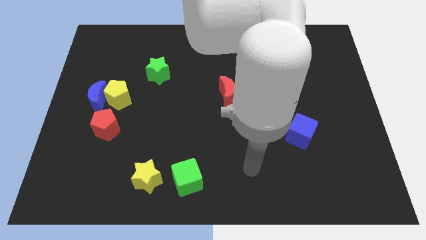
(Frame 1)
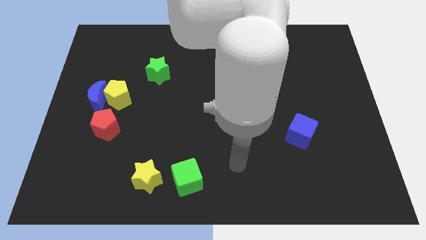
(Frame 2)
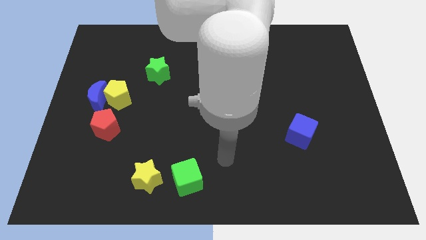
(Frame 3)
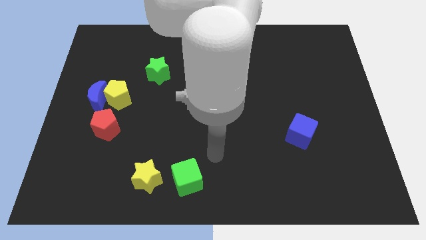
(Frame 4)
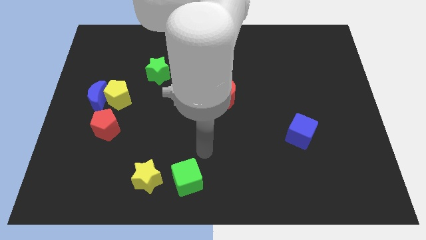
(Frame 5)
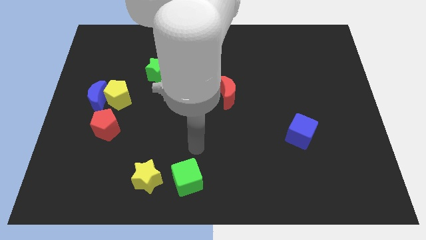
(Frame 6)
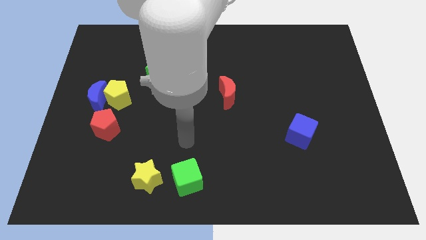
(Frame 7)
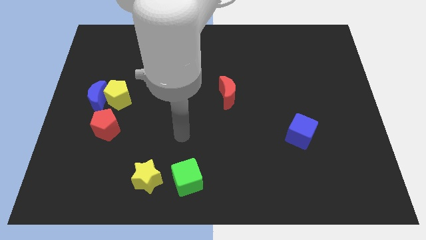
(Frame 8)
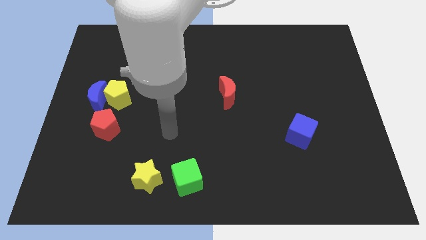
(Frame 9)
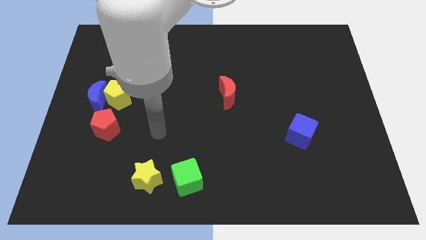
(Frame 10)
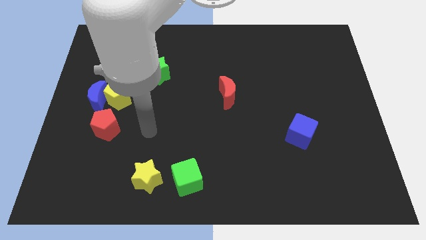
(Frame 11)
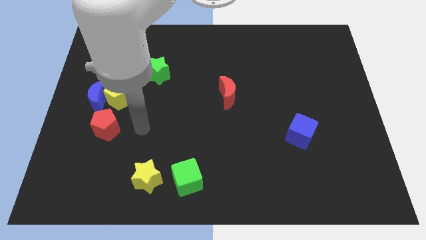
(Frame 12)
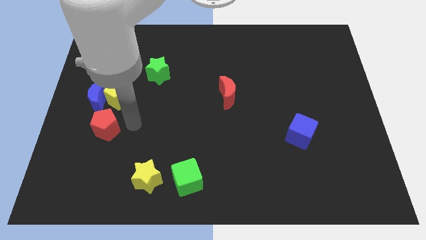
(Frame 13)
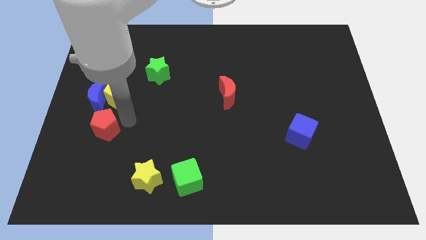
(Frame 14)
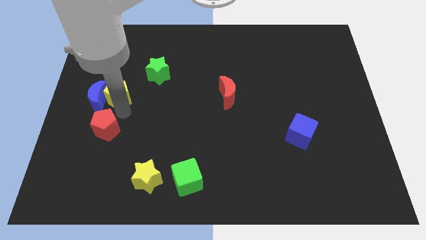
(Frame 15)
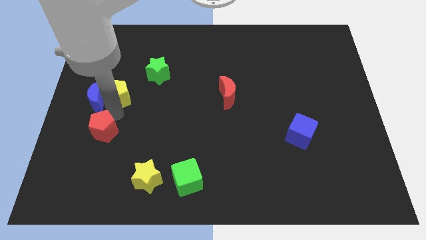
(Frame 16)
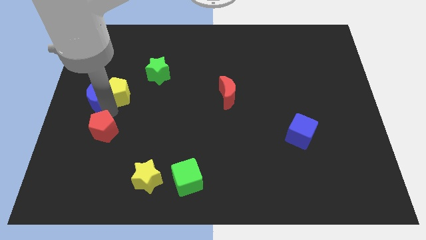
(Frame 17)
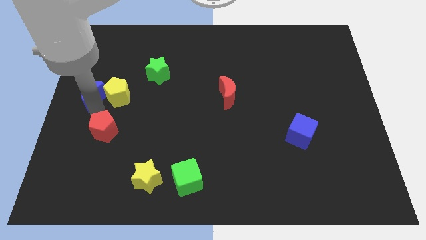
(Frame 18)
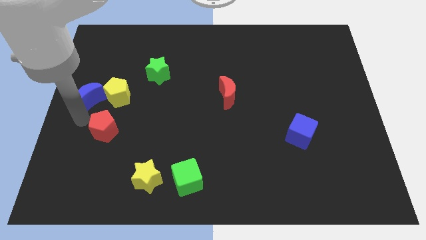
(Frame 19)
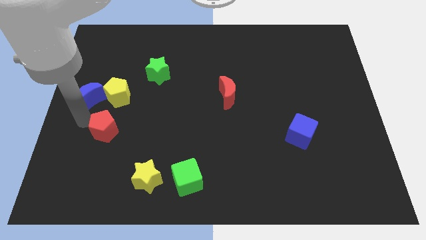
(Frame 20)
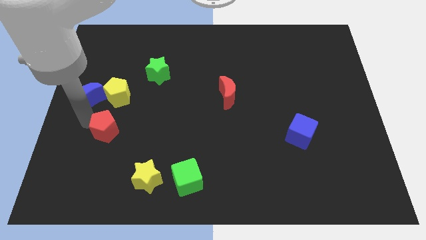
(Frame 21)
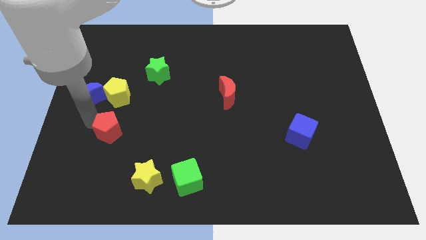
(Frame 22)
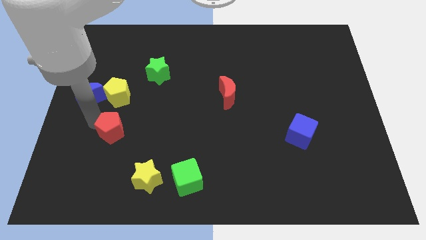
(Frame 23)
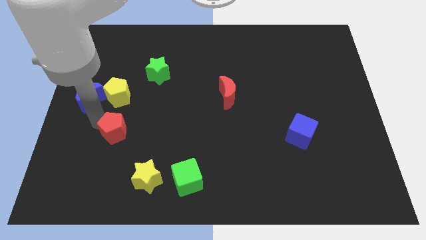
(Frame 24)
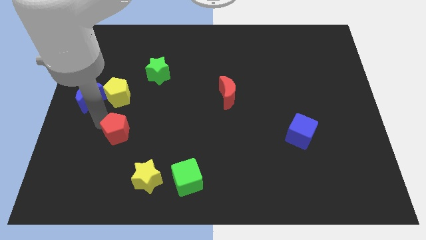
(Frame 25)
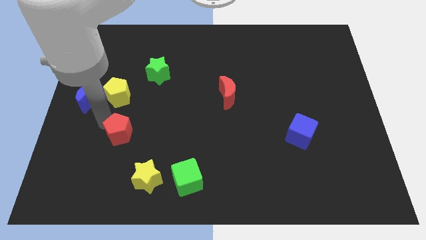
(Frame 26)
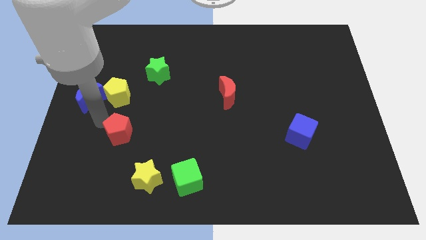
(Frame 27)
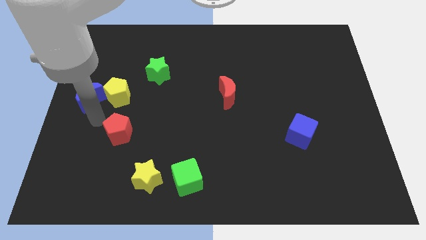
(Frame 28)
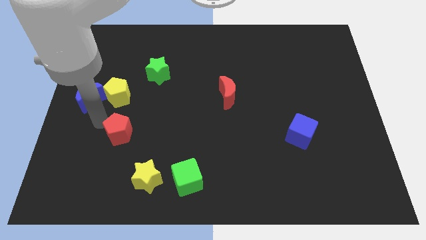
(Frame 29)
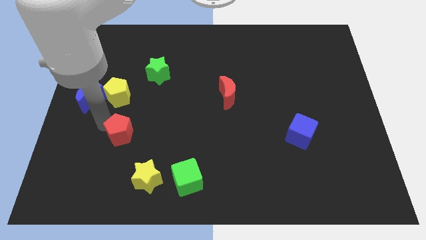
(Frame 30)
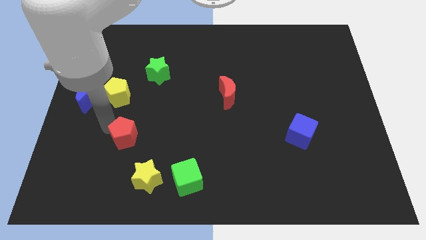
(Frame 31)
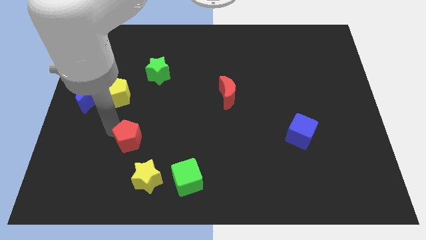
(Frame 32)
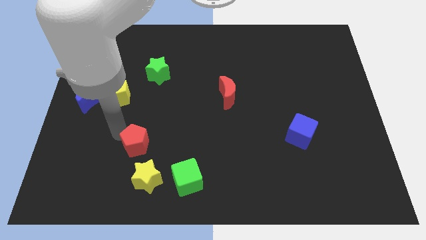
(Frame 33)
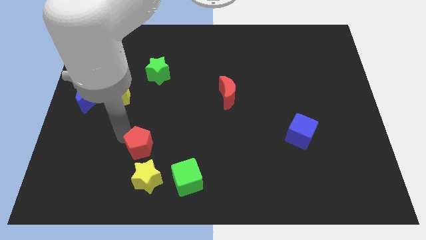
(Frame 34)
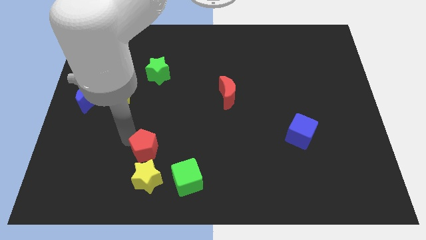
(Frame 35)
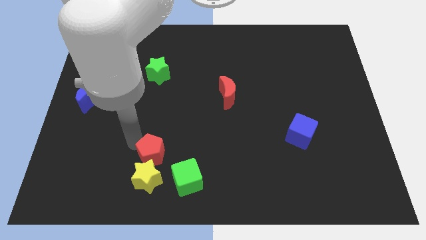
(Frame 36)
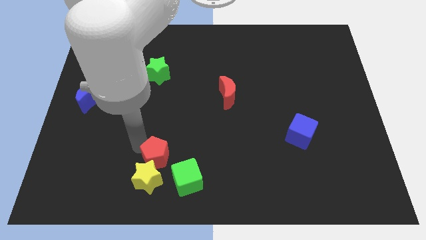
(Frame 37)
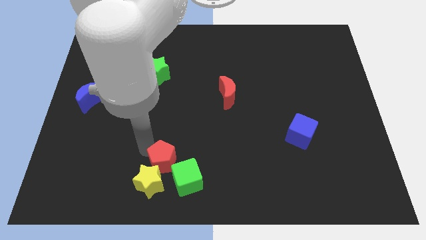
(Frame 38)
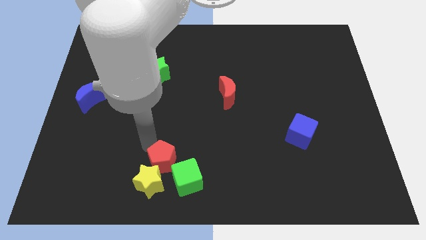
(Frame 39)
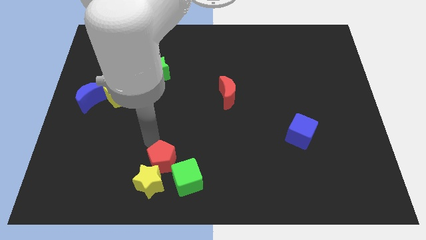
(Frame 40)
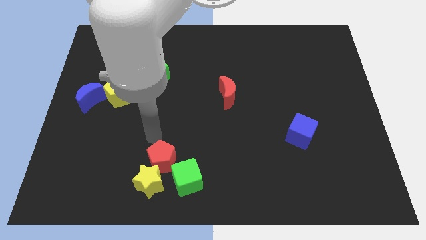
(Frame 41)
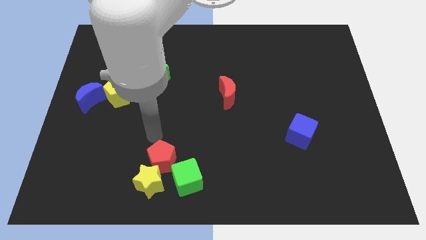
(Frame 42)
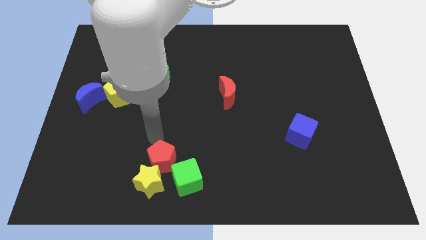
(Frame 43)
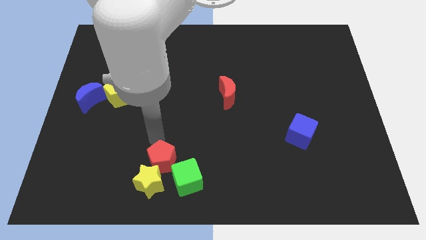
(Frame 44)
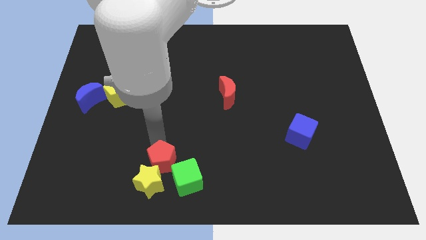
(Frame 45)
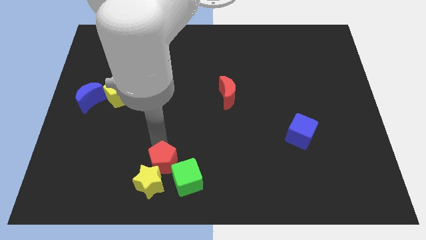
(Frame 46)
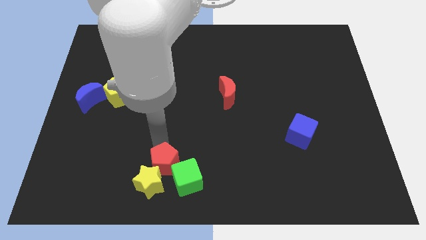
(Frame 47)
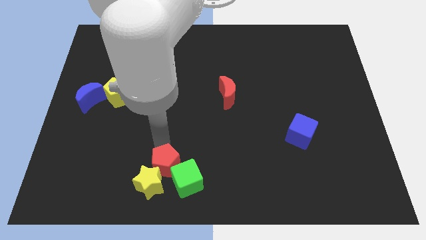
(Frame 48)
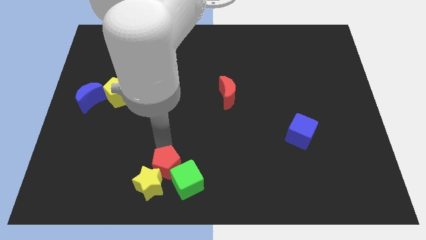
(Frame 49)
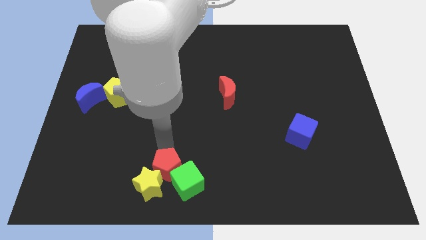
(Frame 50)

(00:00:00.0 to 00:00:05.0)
slide the red pentagon to the bottom side

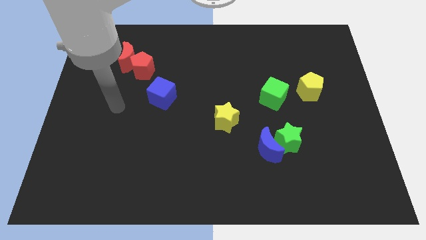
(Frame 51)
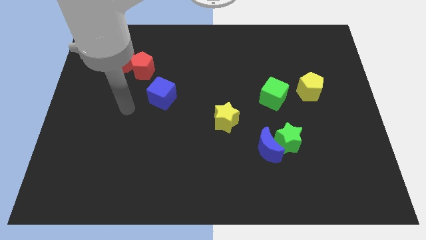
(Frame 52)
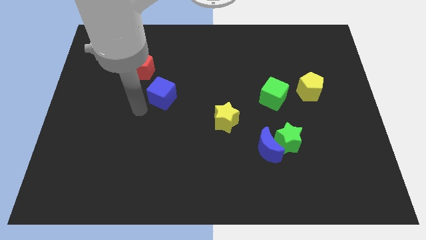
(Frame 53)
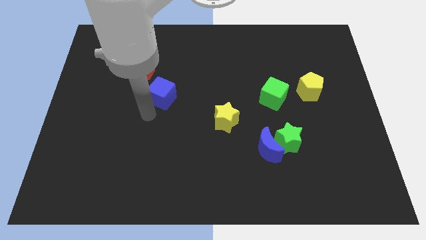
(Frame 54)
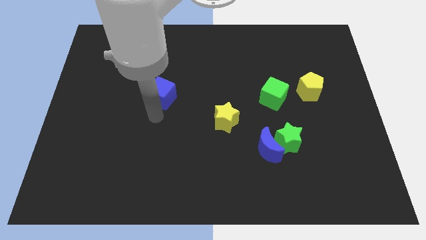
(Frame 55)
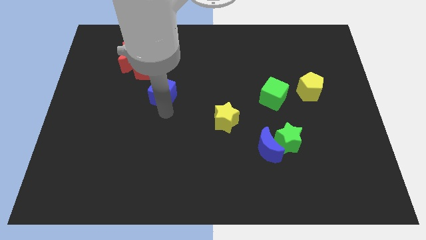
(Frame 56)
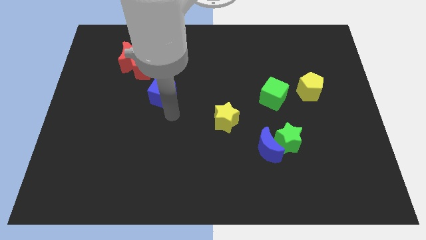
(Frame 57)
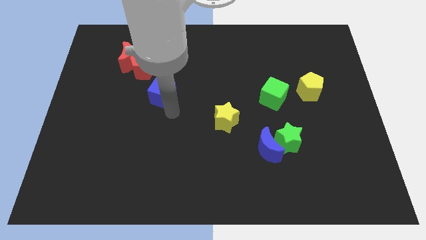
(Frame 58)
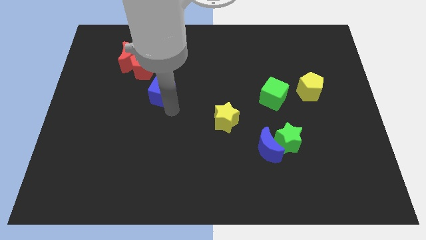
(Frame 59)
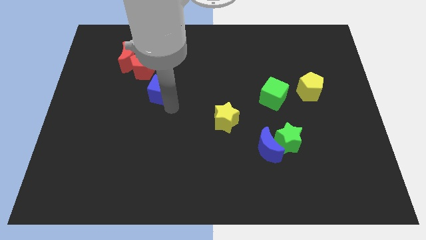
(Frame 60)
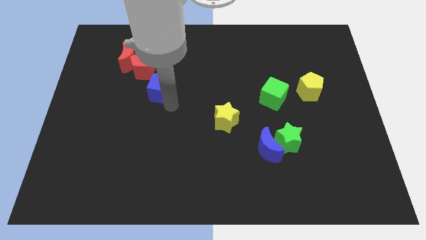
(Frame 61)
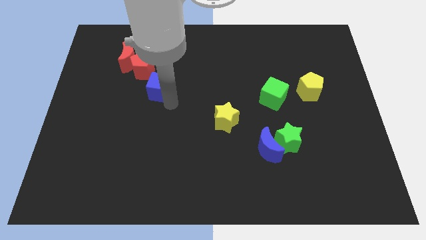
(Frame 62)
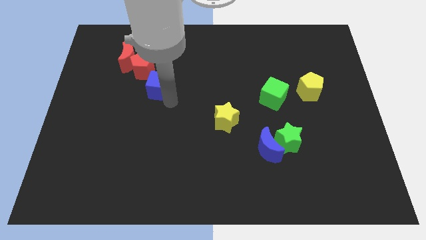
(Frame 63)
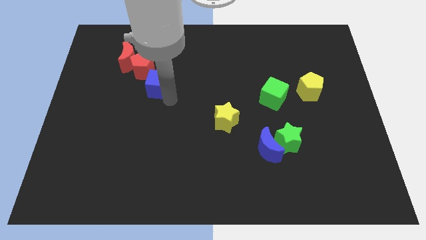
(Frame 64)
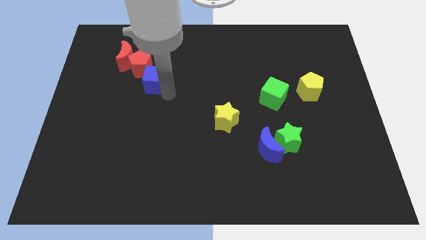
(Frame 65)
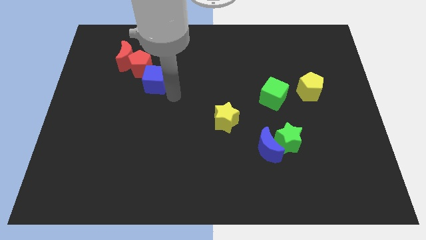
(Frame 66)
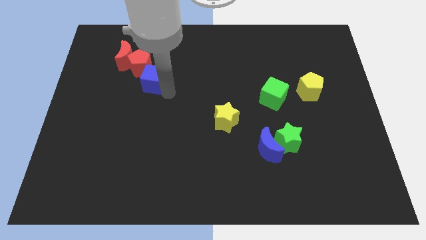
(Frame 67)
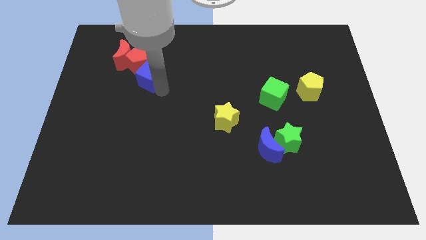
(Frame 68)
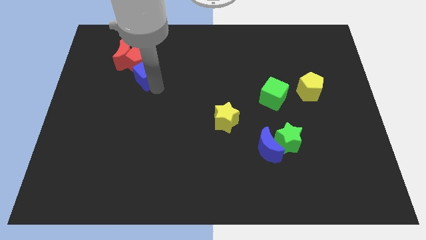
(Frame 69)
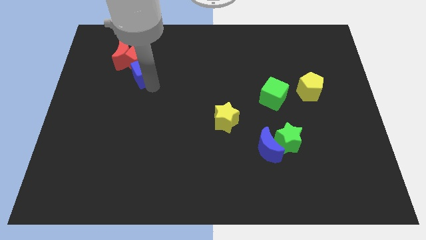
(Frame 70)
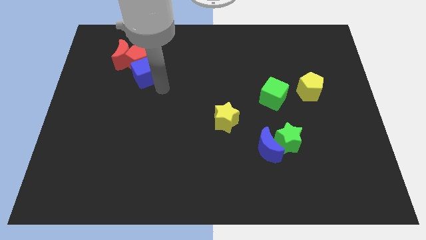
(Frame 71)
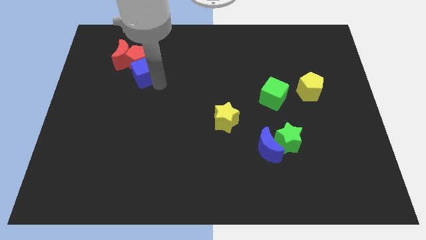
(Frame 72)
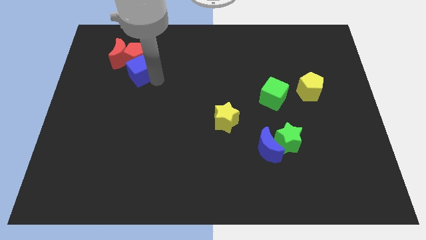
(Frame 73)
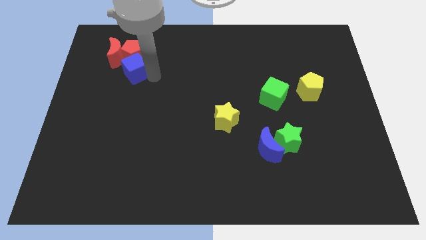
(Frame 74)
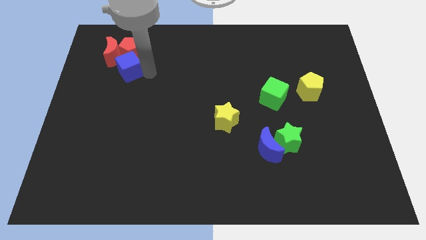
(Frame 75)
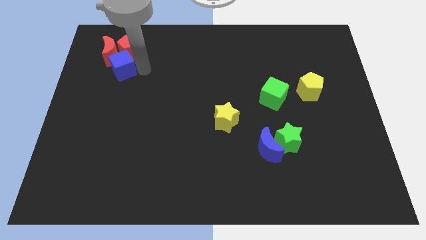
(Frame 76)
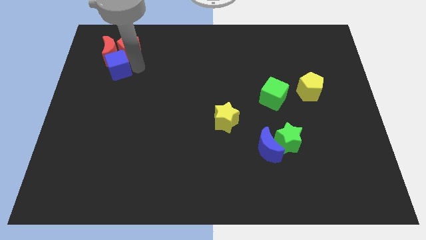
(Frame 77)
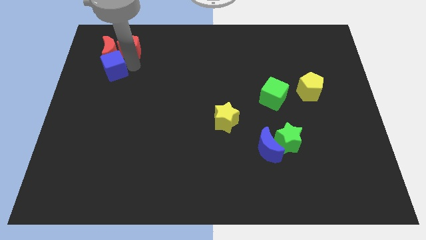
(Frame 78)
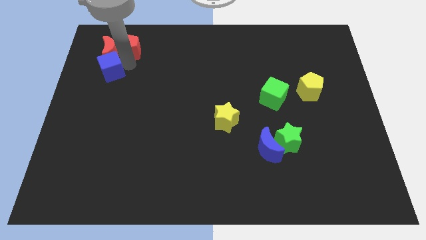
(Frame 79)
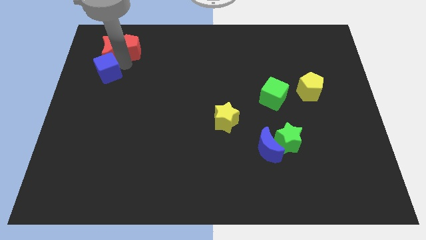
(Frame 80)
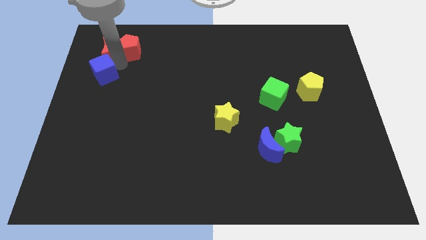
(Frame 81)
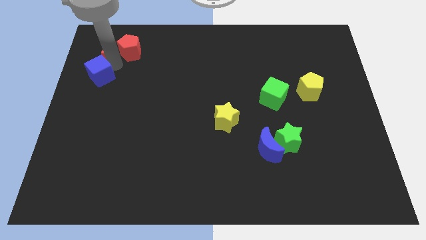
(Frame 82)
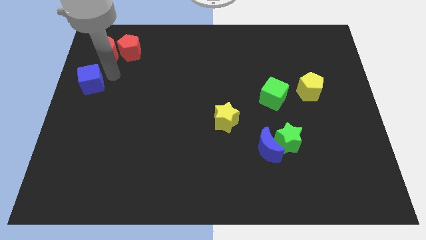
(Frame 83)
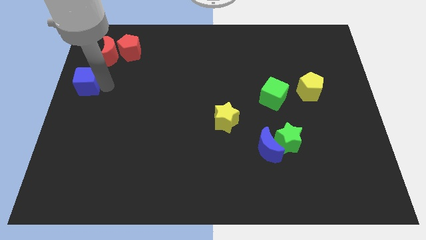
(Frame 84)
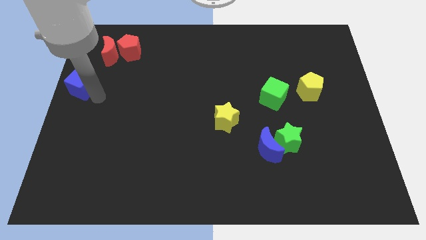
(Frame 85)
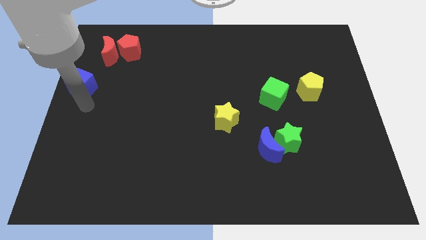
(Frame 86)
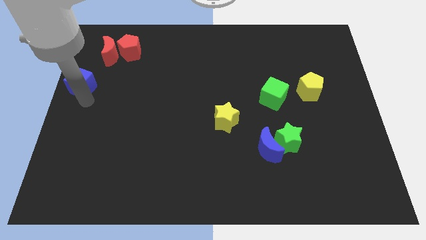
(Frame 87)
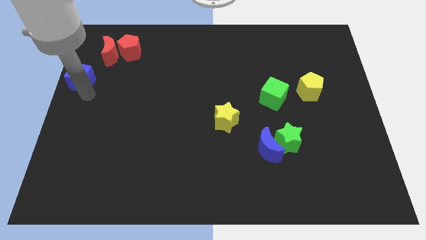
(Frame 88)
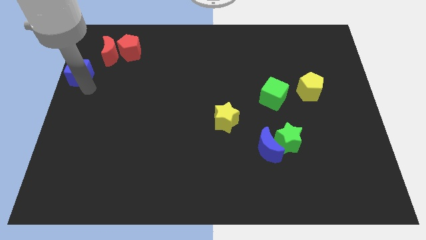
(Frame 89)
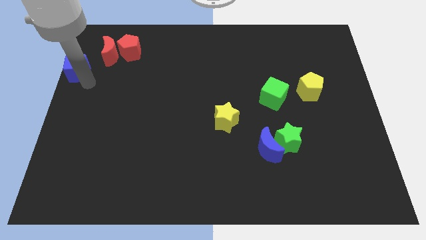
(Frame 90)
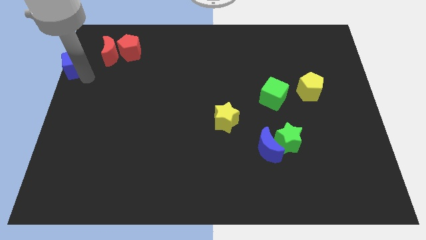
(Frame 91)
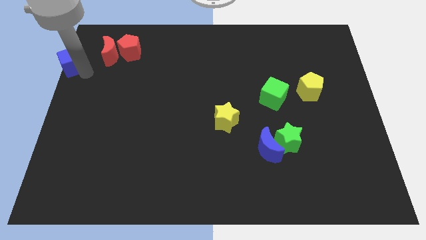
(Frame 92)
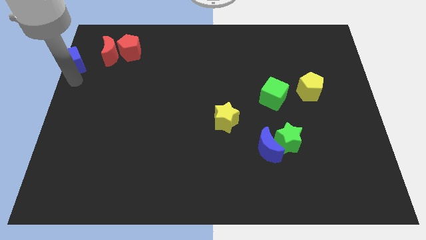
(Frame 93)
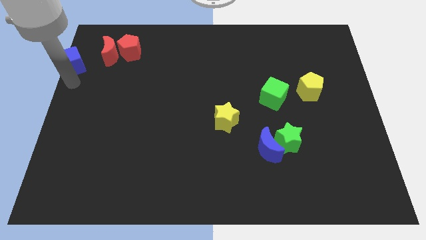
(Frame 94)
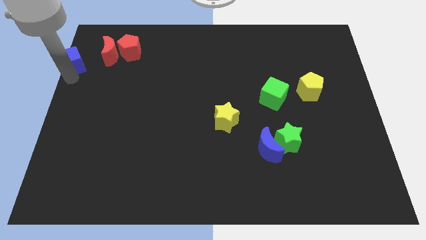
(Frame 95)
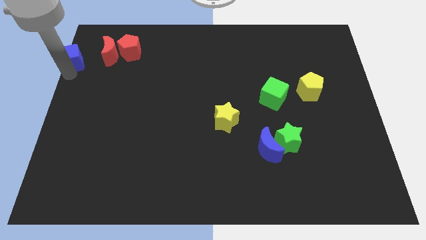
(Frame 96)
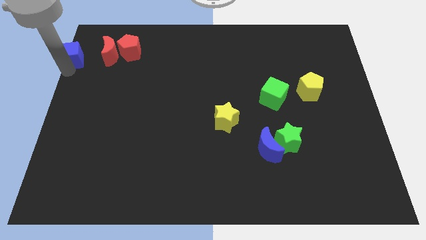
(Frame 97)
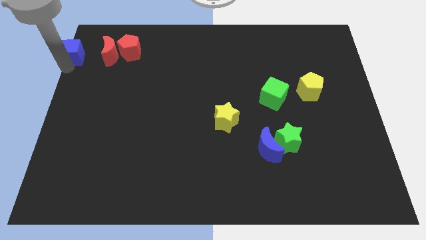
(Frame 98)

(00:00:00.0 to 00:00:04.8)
put the blue cube to the upper left corner
